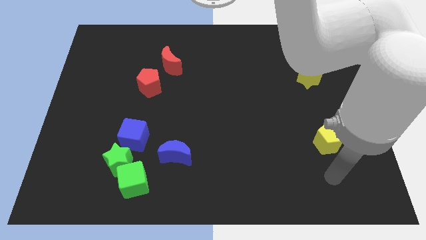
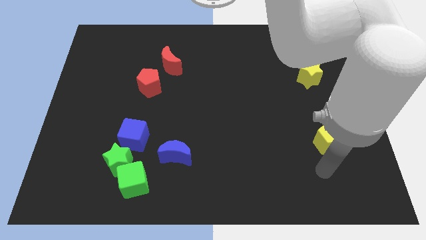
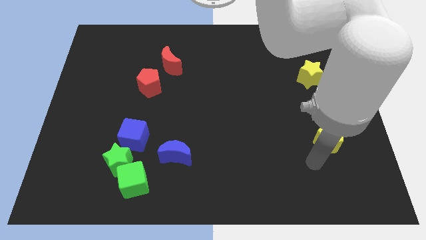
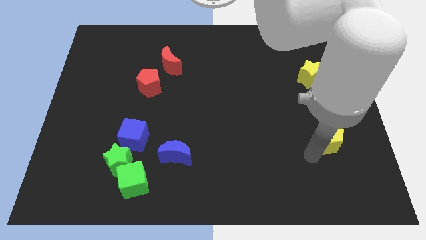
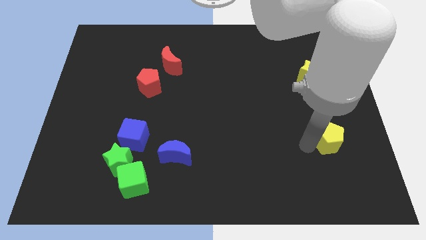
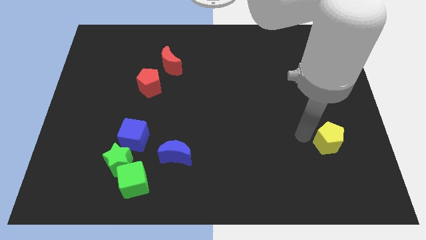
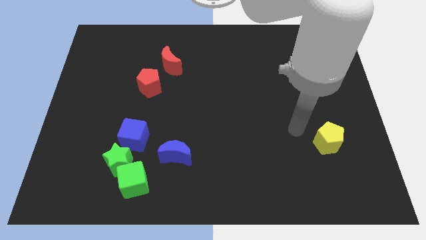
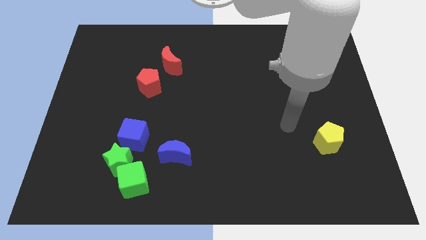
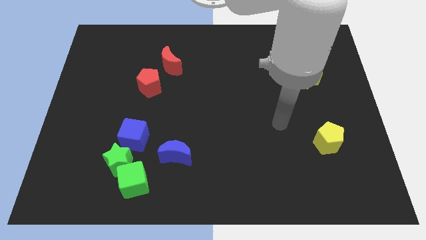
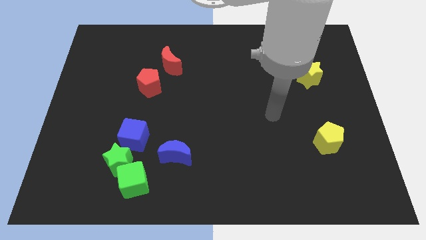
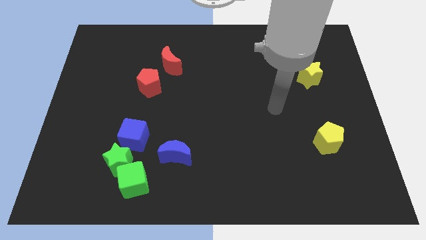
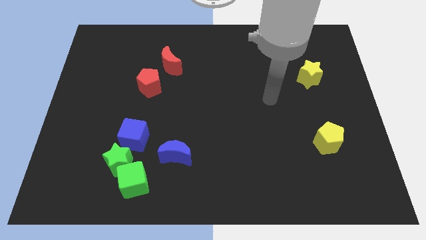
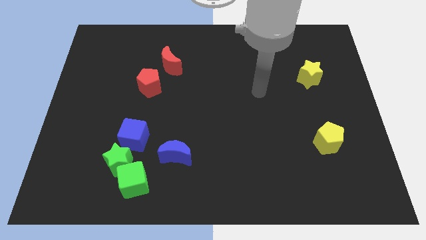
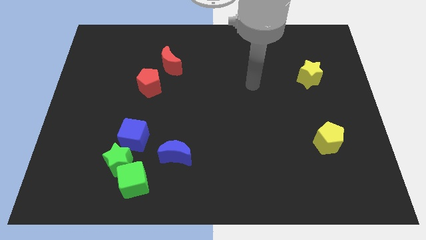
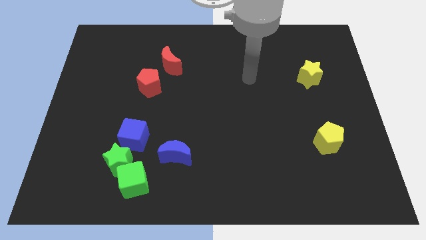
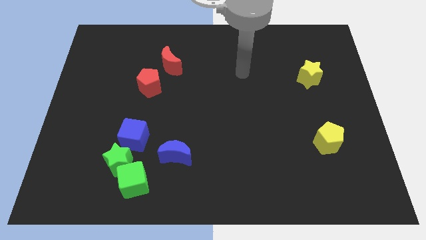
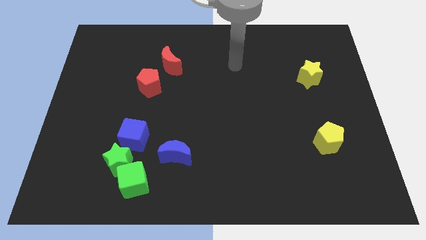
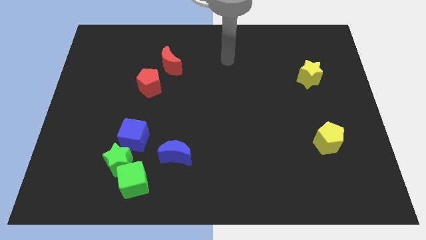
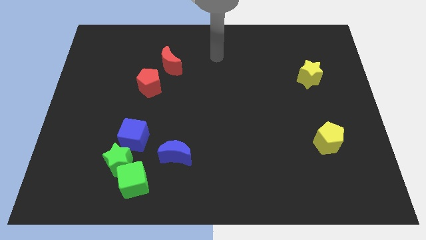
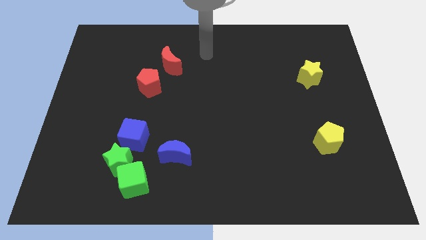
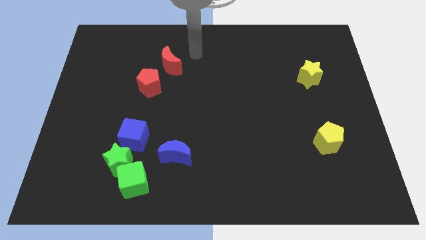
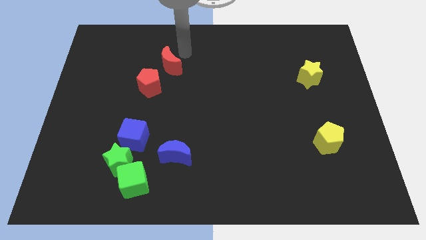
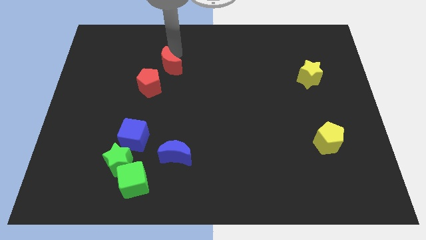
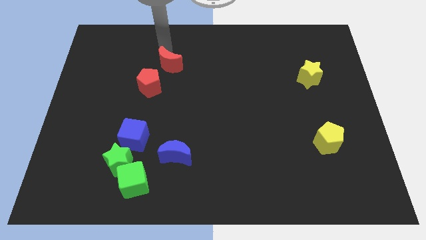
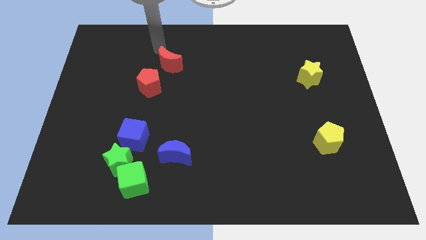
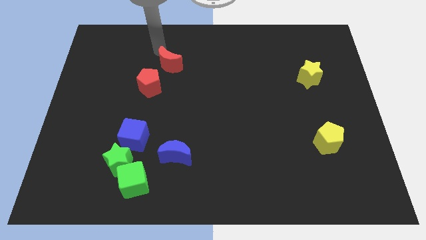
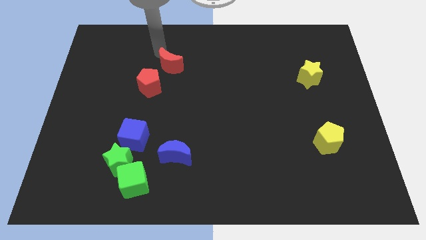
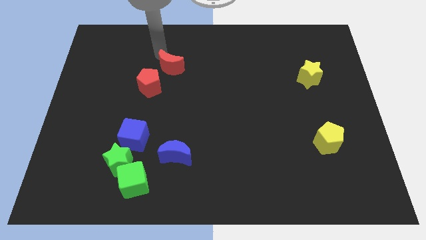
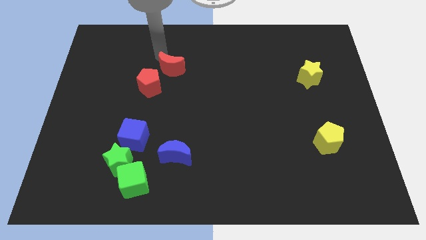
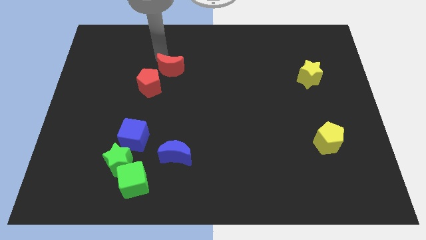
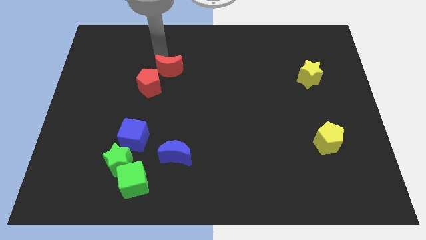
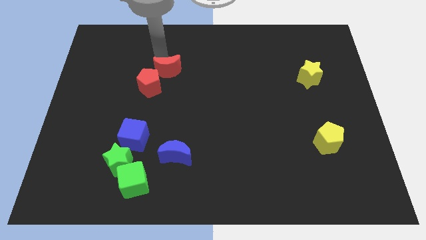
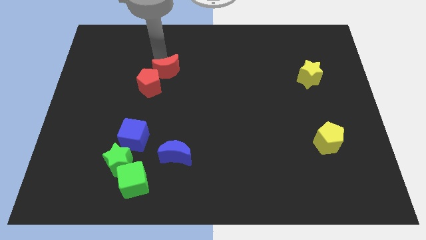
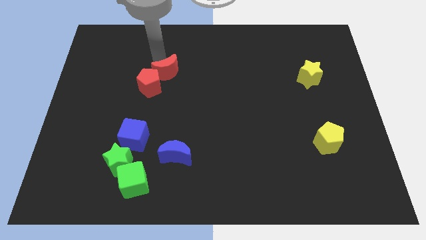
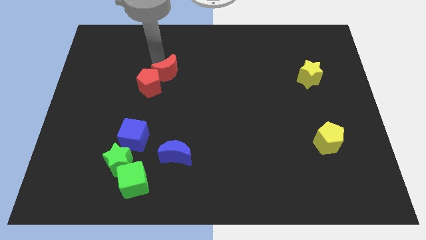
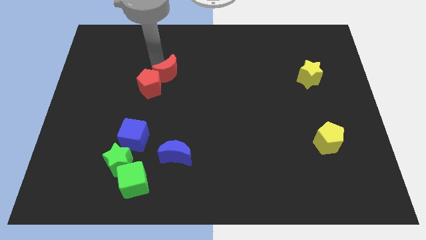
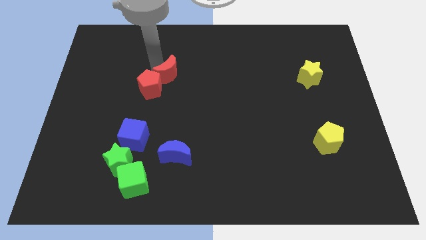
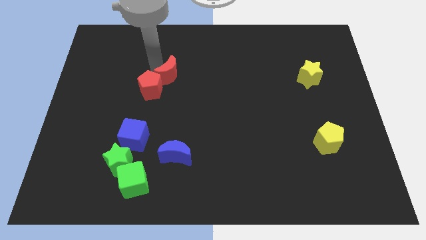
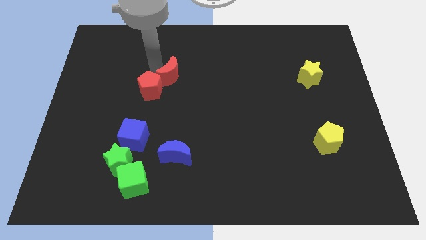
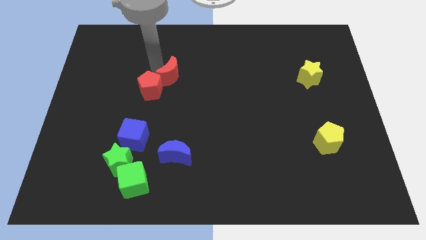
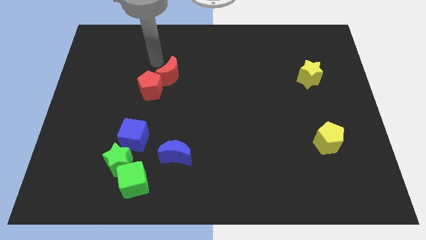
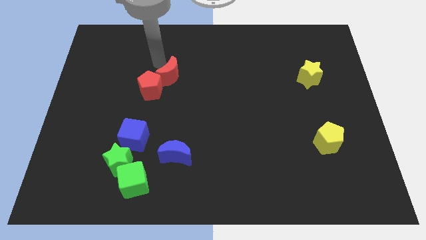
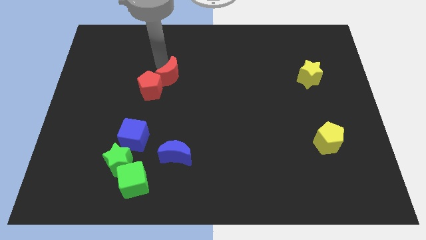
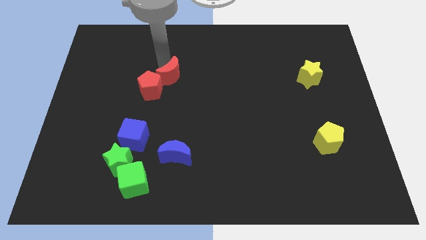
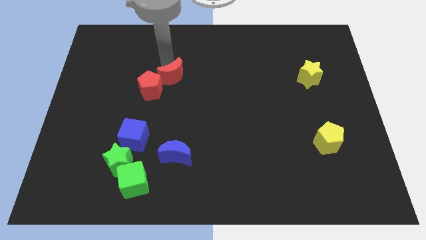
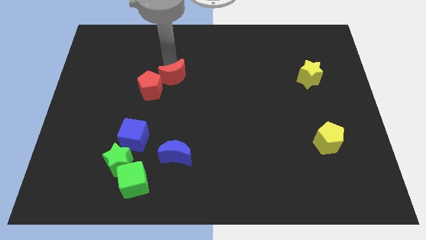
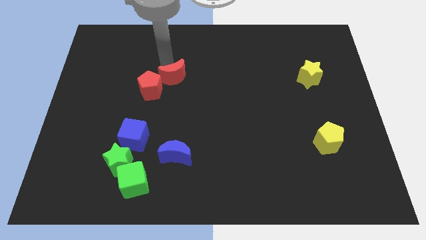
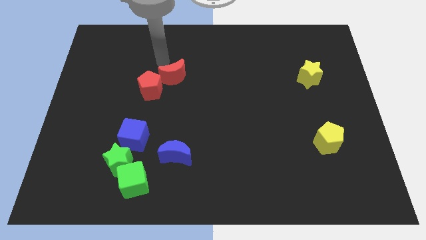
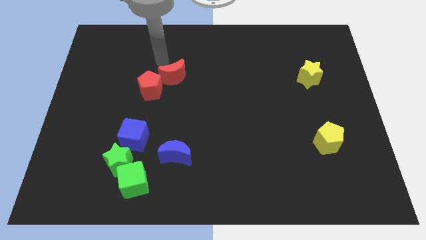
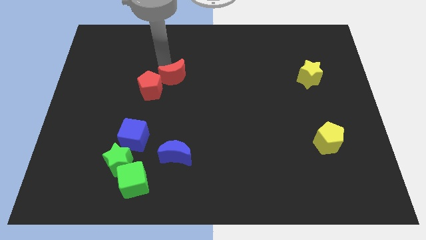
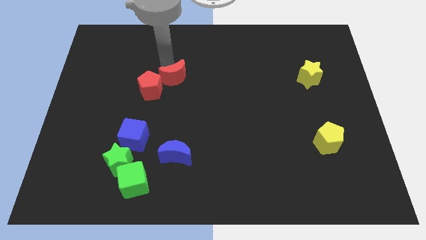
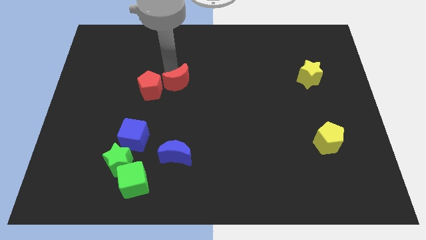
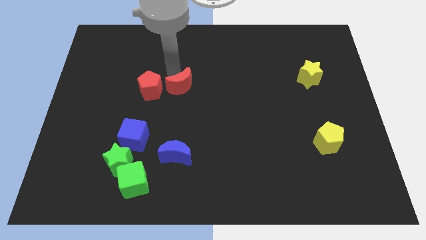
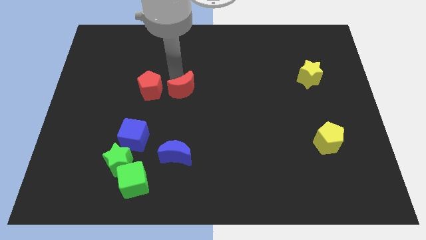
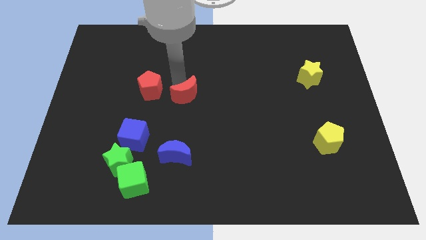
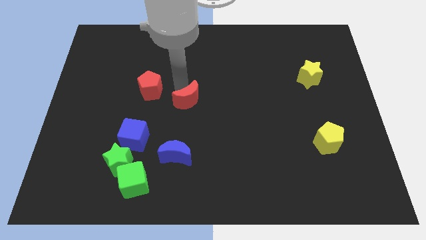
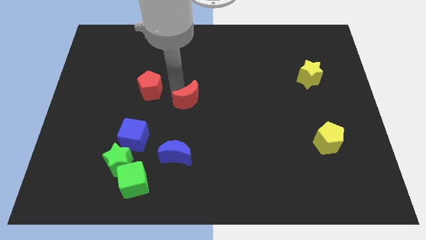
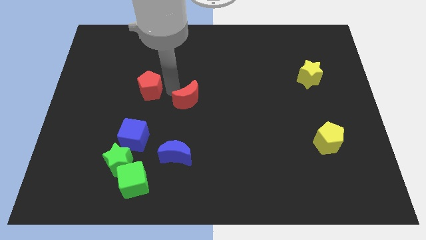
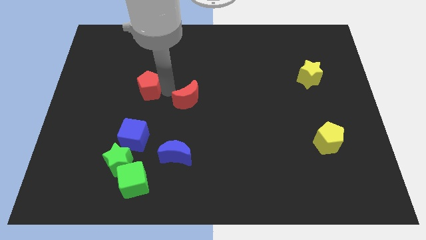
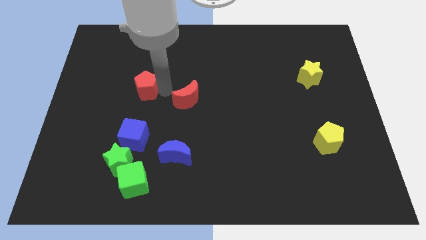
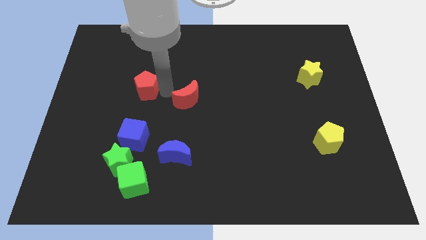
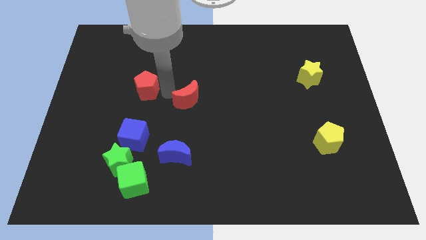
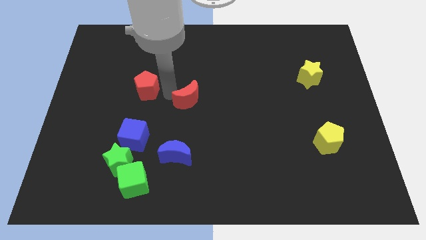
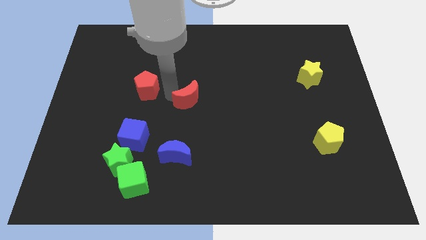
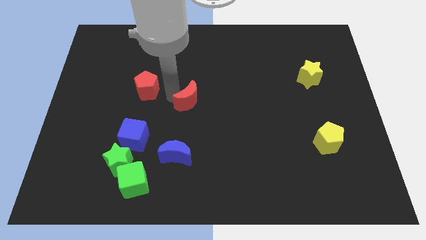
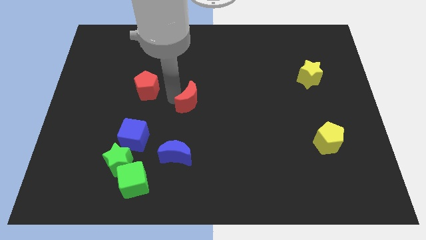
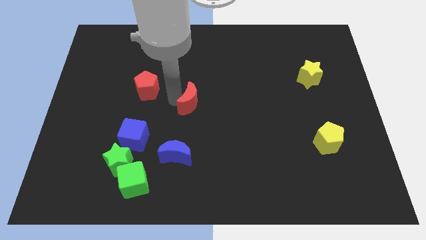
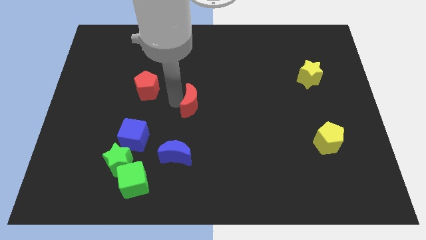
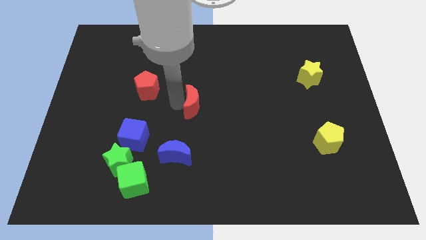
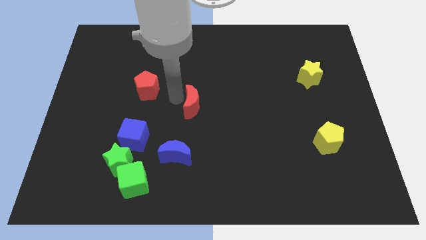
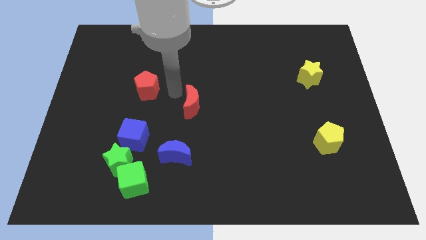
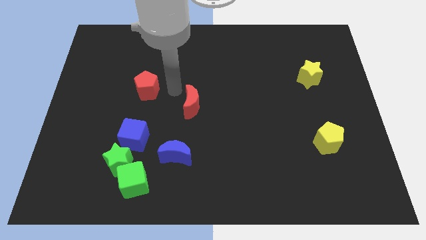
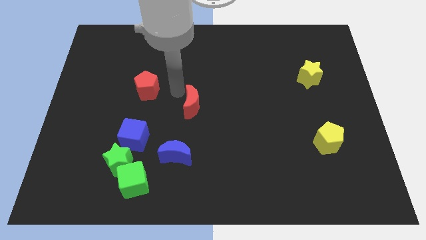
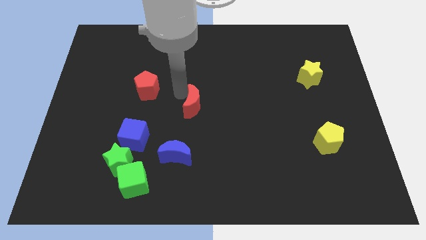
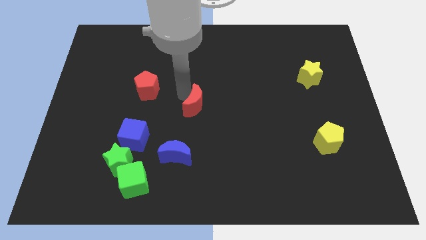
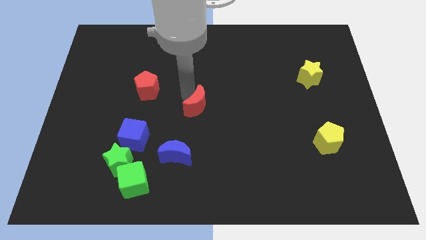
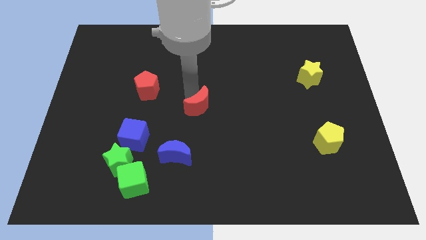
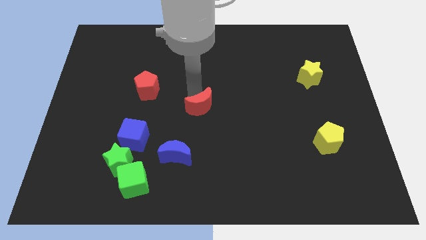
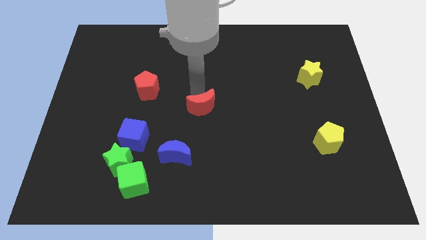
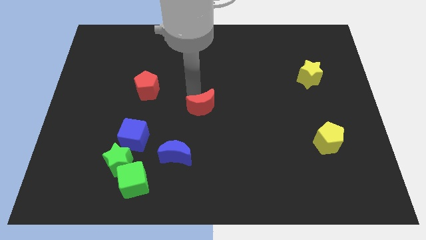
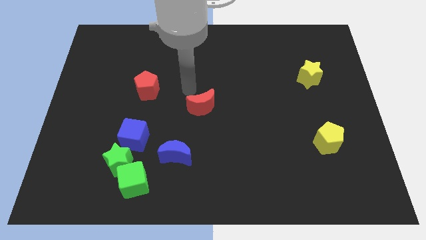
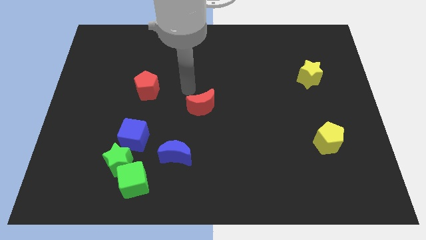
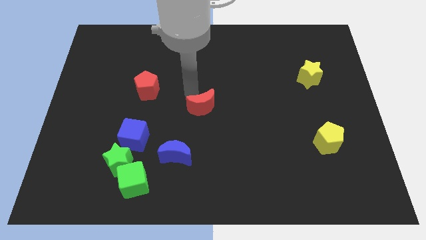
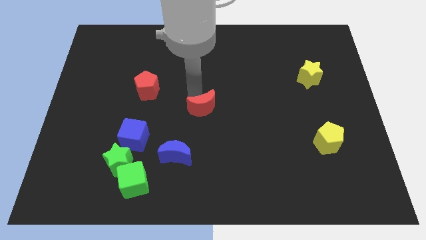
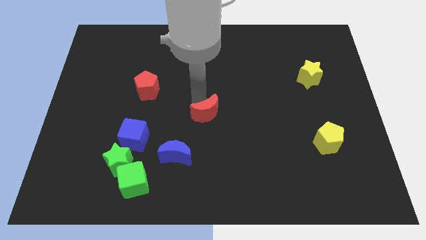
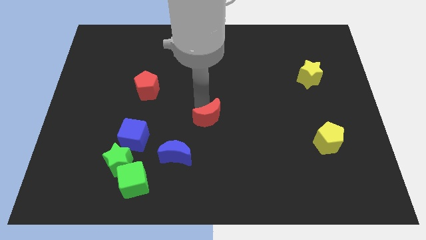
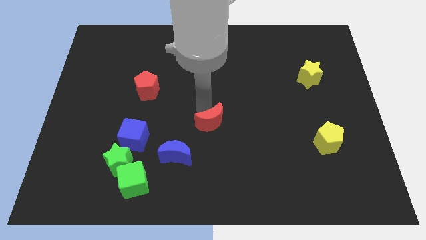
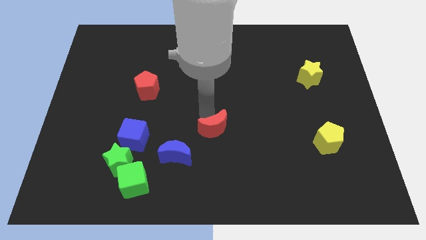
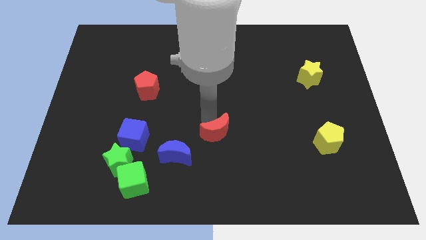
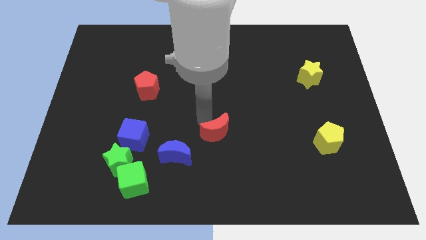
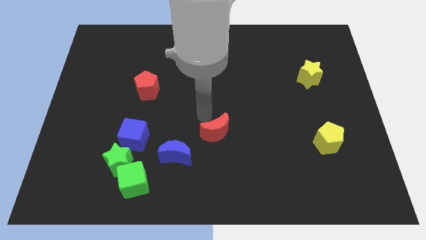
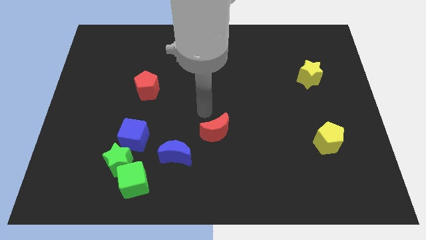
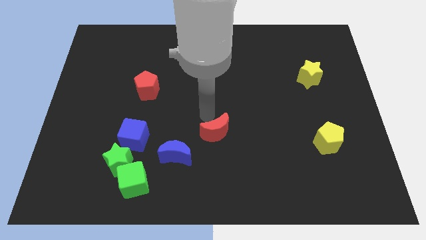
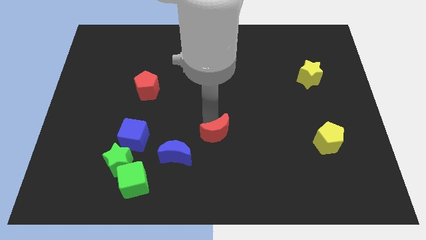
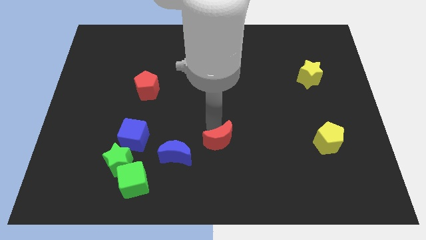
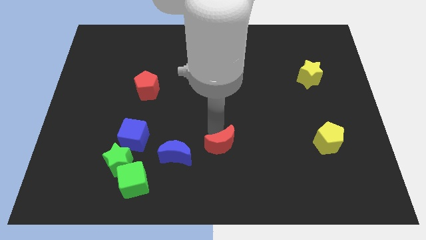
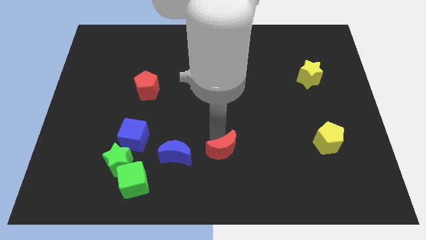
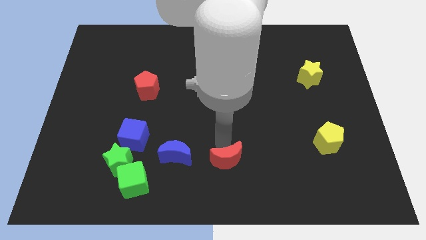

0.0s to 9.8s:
put the red moon to the bottom side
